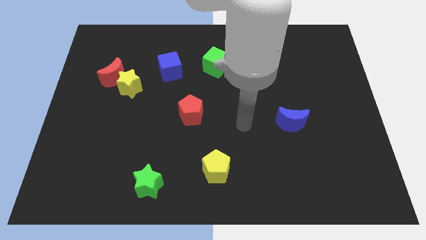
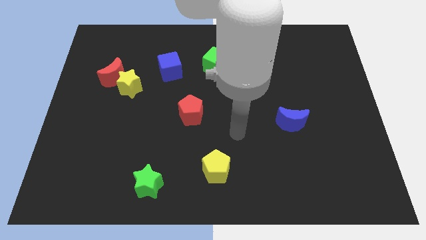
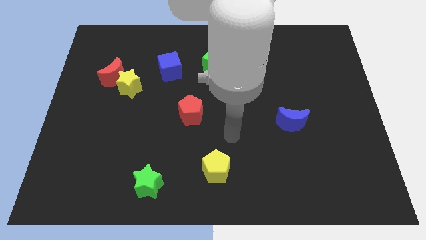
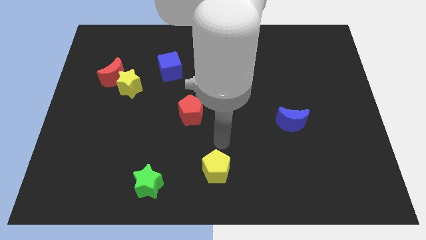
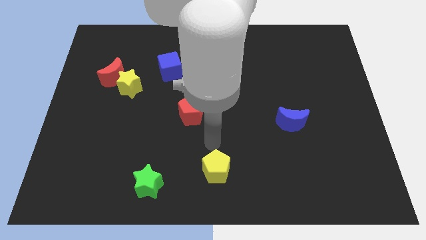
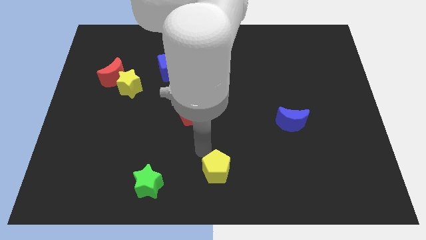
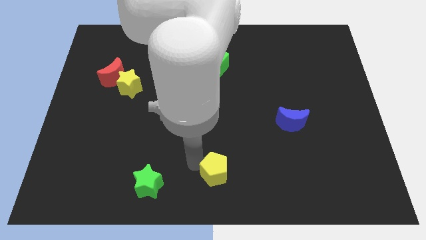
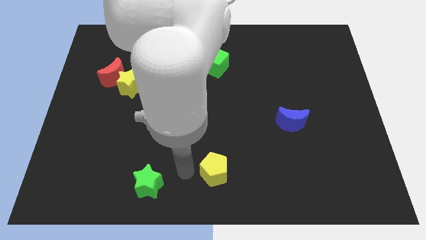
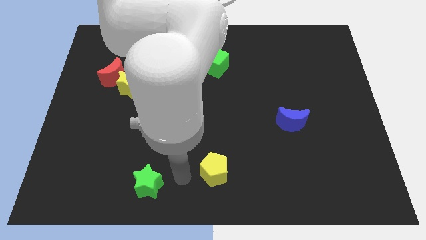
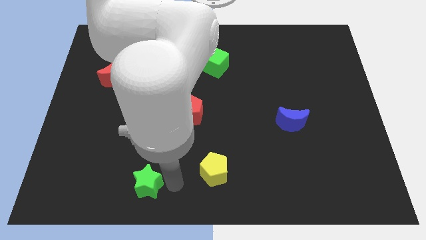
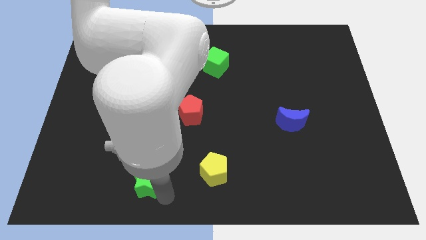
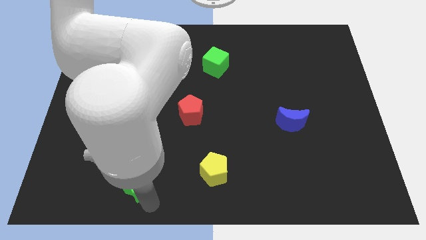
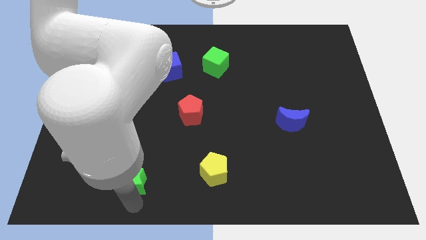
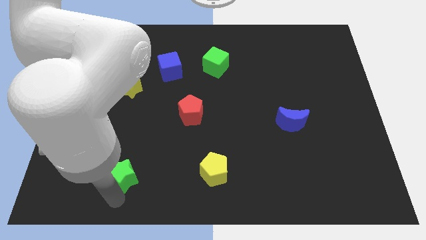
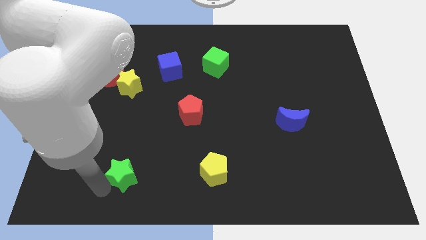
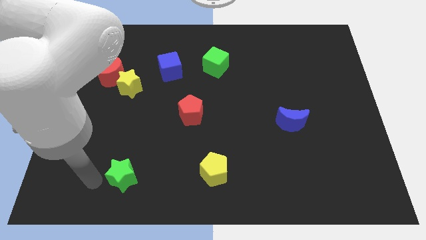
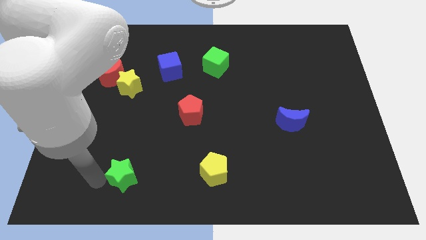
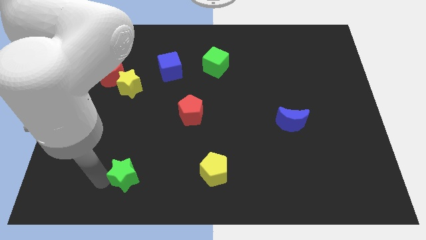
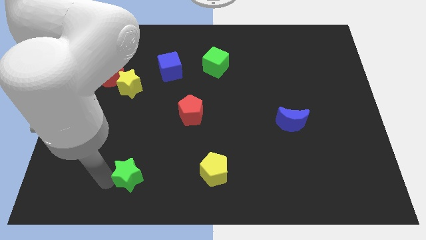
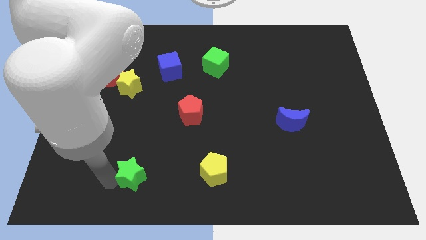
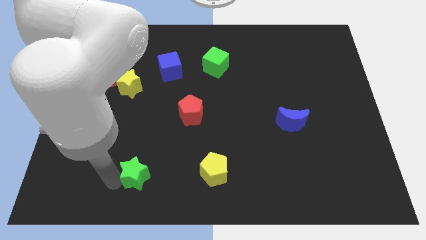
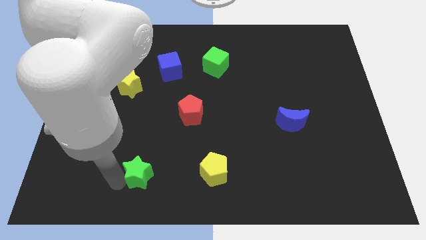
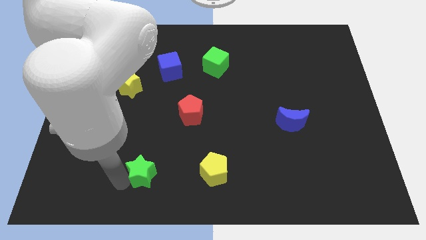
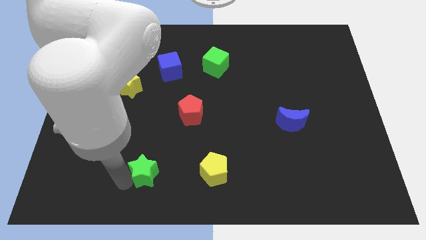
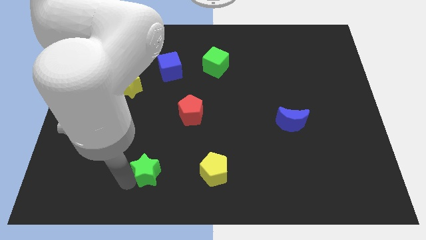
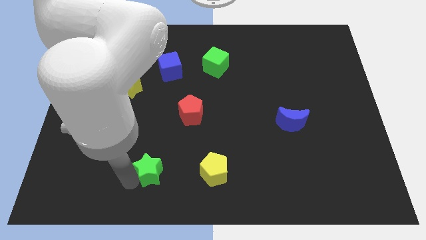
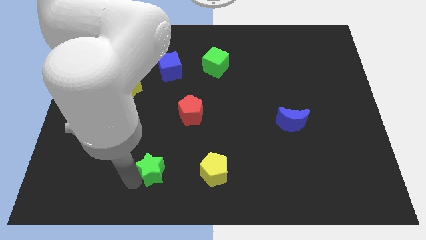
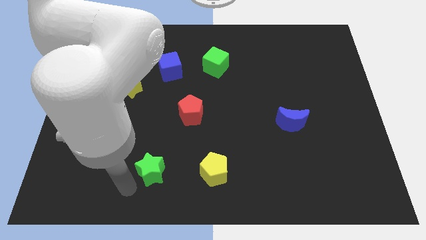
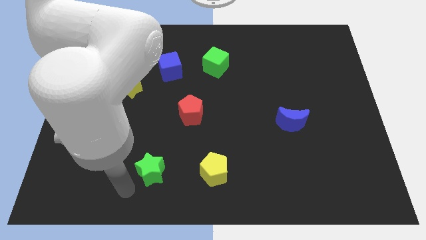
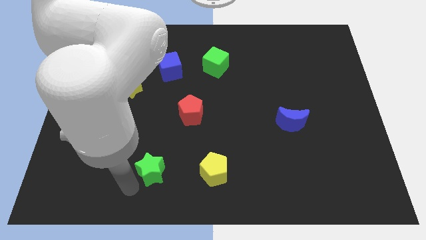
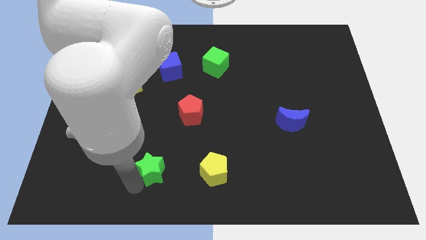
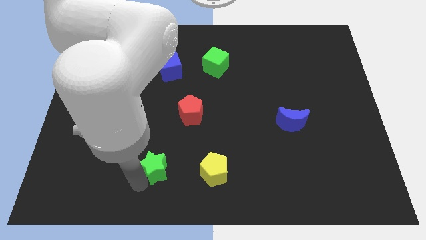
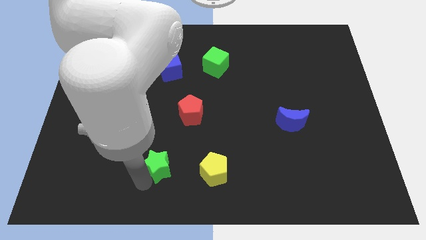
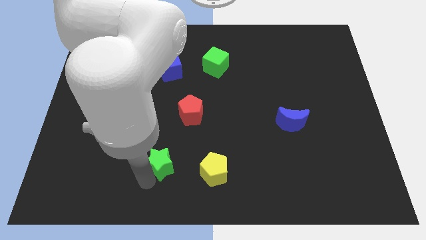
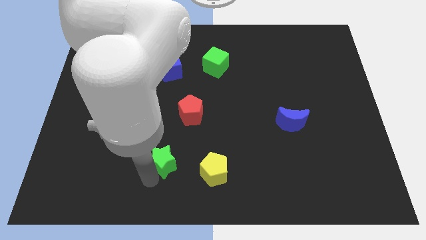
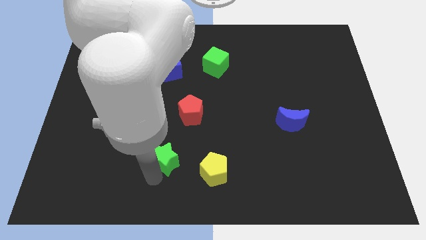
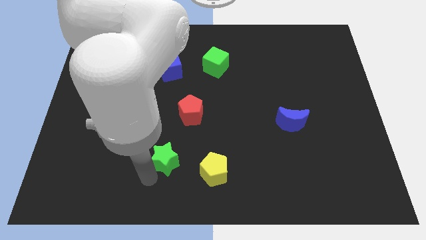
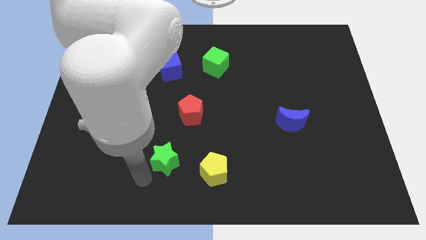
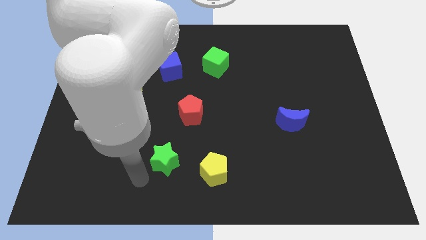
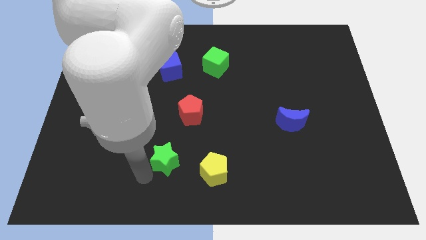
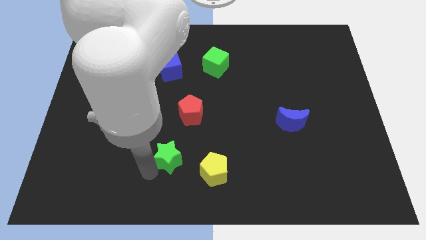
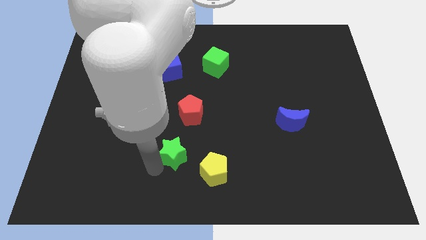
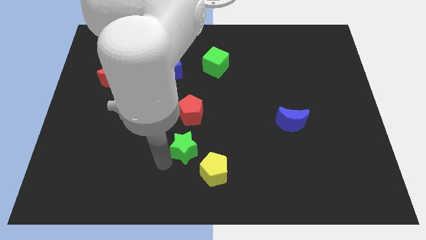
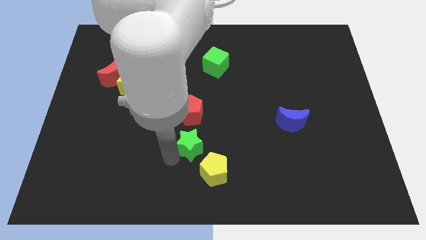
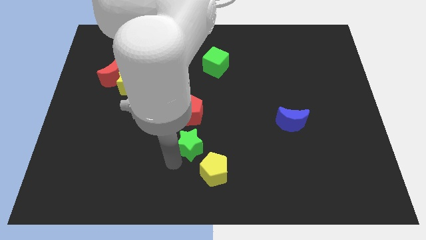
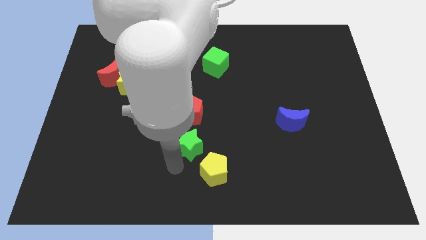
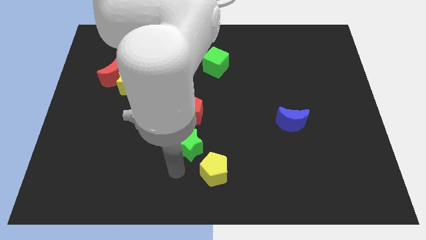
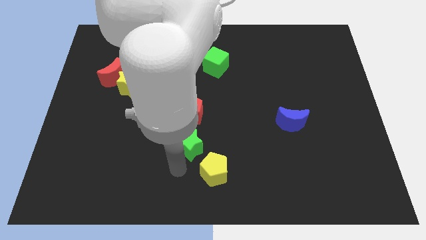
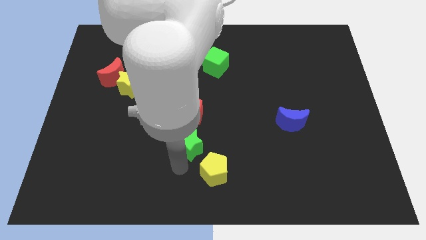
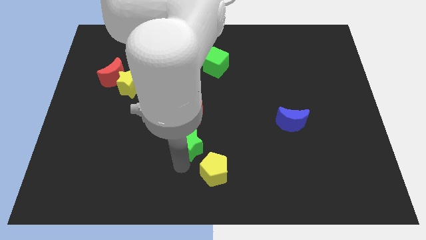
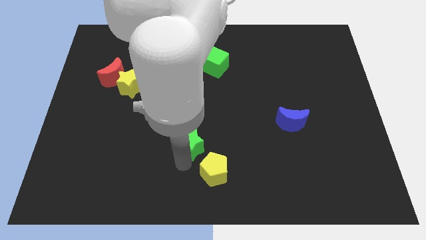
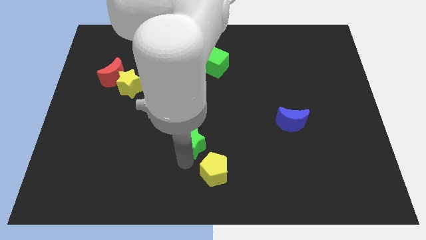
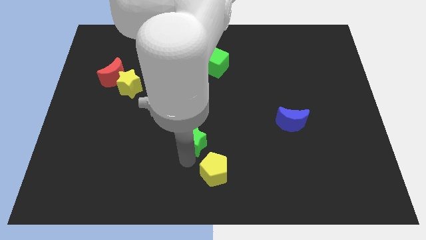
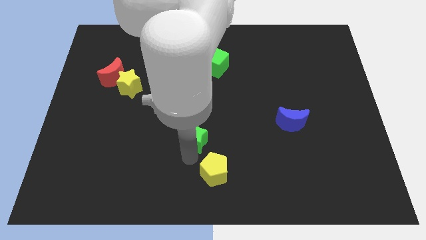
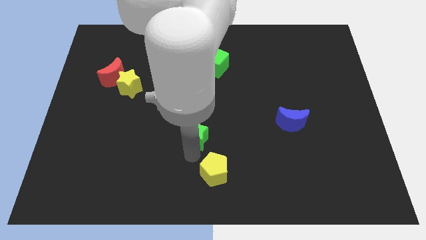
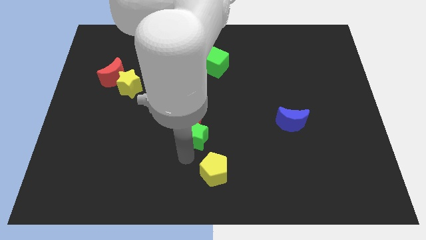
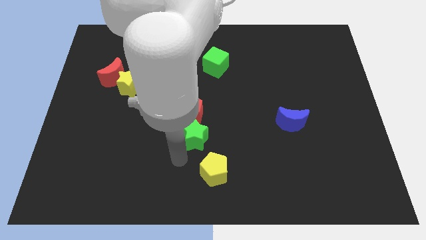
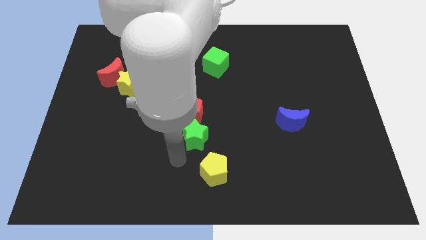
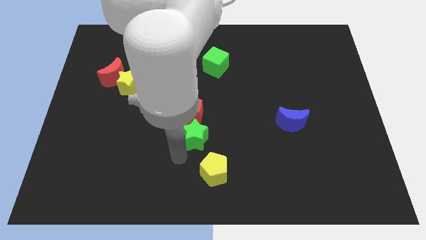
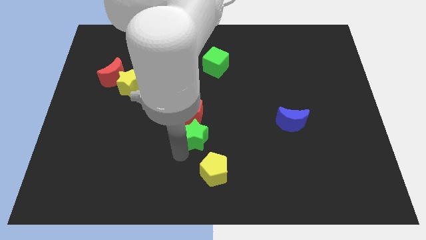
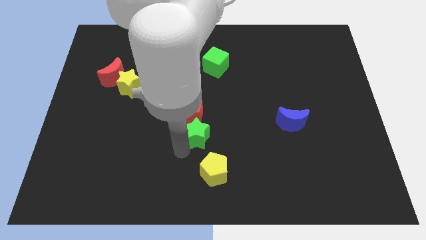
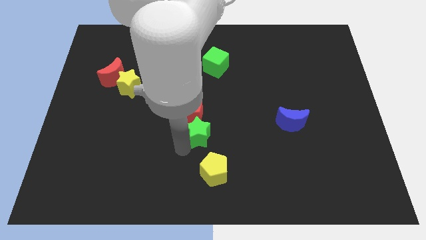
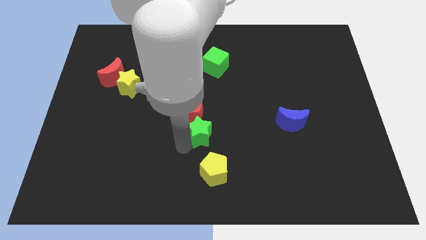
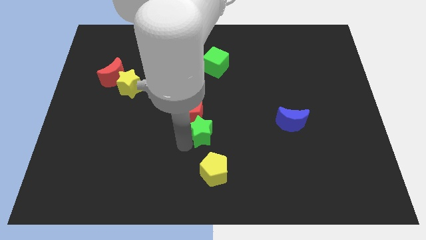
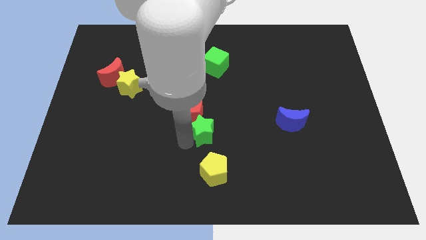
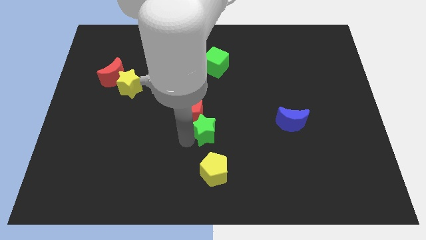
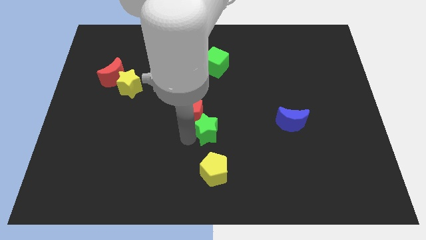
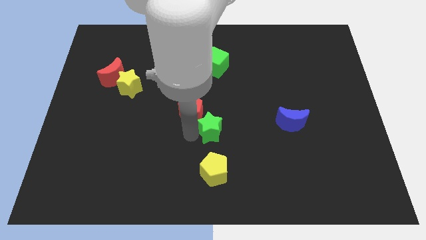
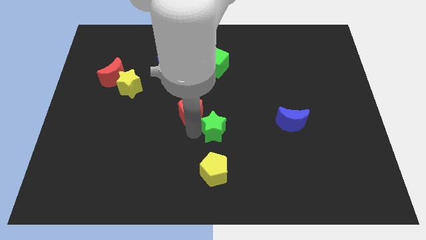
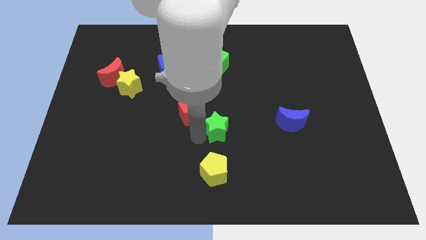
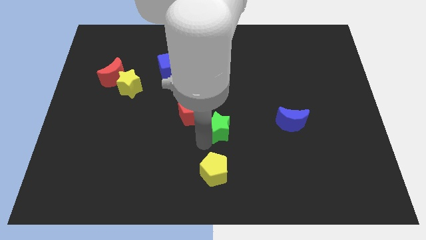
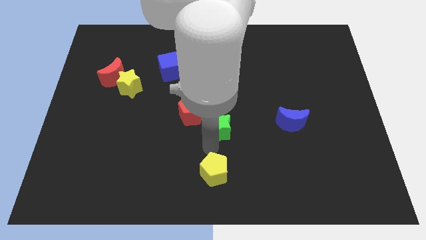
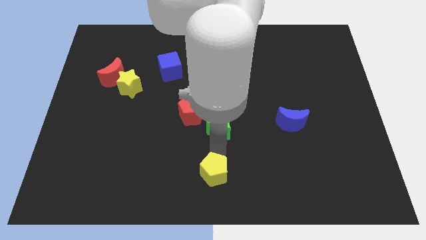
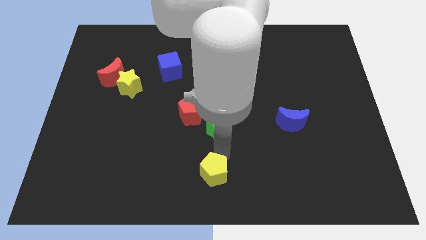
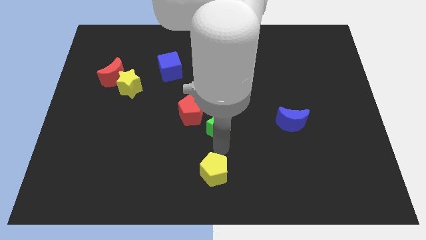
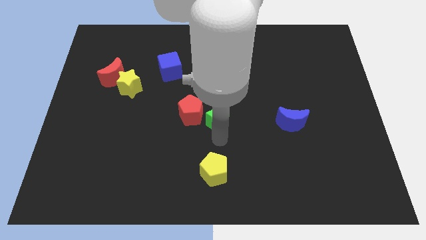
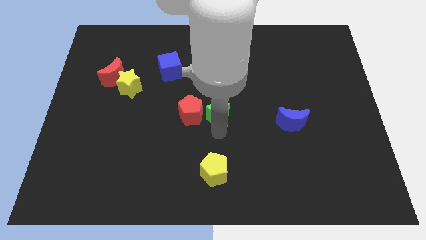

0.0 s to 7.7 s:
put the green star to the top right side of the red pentagon
